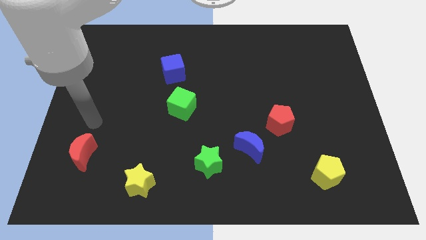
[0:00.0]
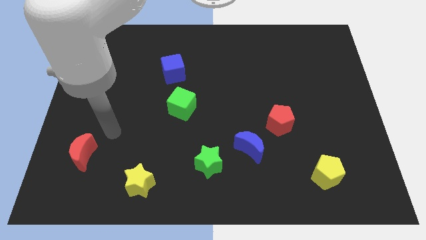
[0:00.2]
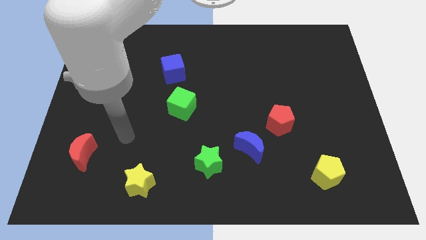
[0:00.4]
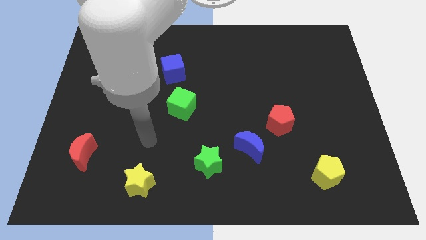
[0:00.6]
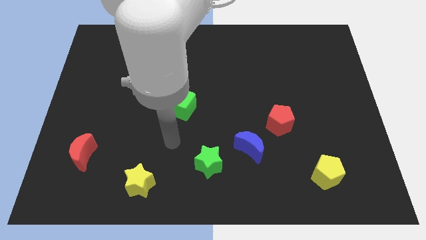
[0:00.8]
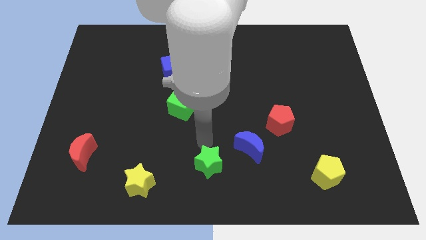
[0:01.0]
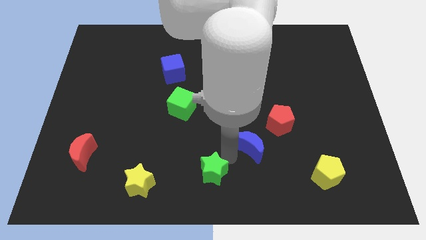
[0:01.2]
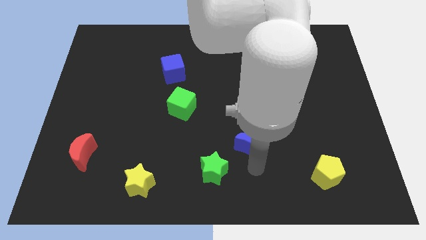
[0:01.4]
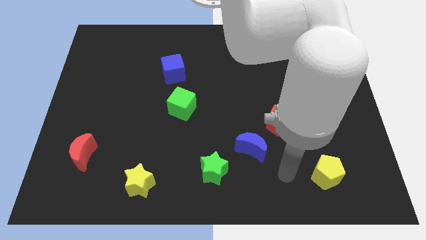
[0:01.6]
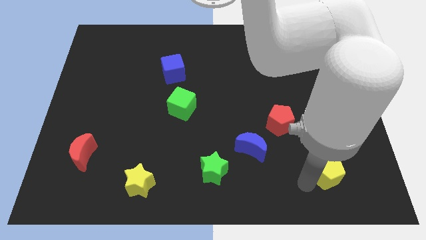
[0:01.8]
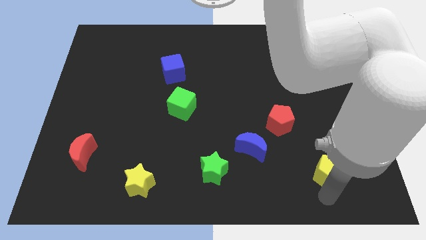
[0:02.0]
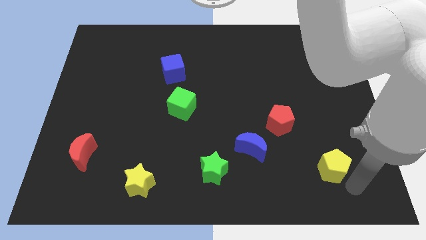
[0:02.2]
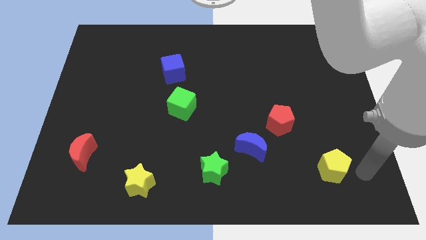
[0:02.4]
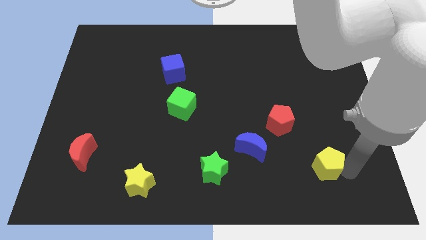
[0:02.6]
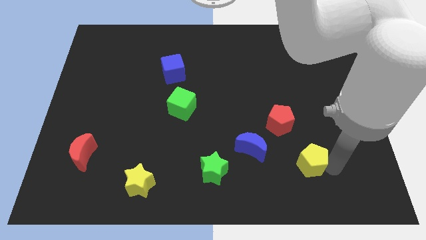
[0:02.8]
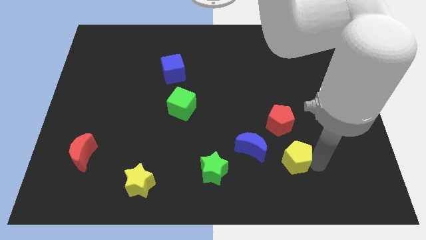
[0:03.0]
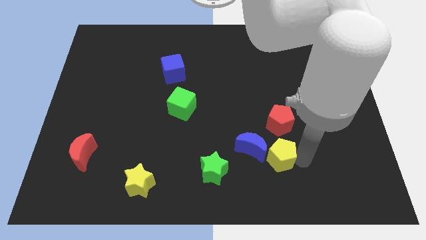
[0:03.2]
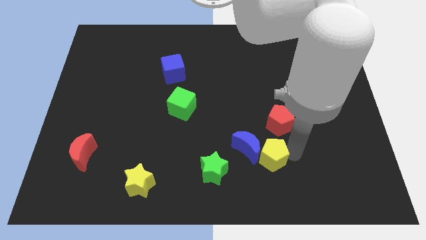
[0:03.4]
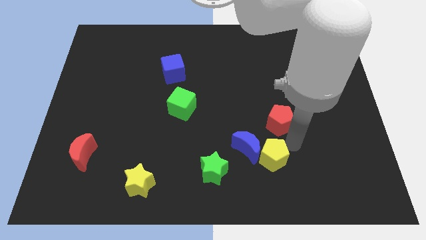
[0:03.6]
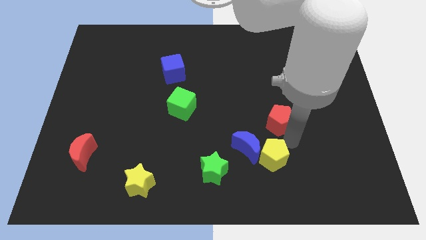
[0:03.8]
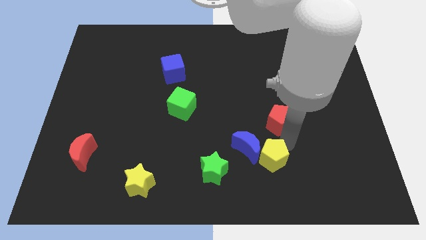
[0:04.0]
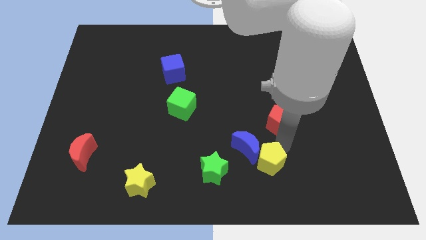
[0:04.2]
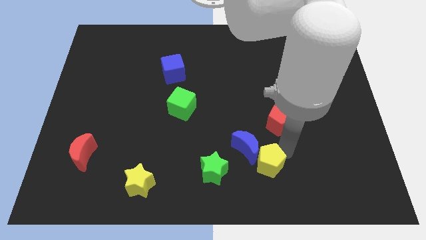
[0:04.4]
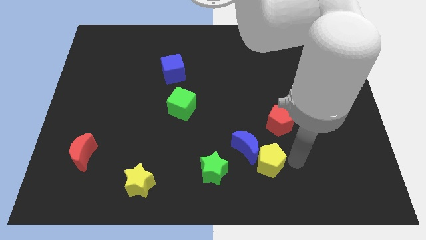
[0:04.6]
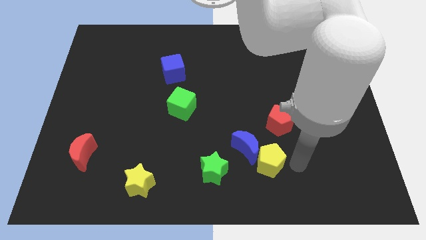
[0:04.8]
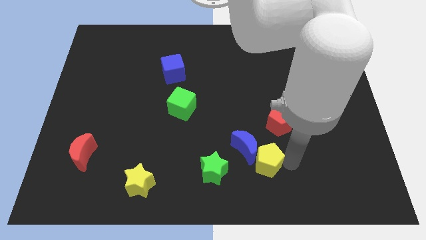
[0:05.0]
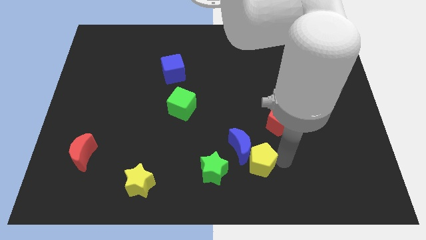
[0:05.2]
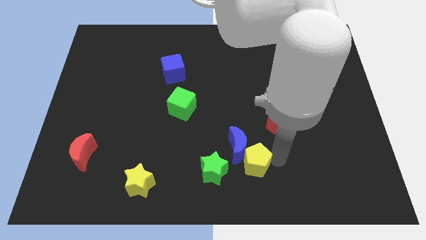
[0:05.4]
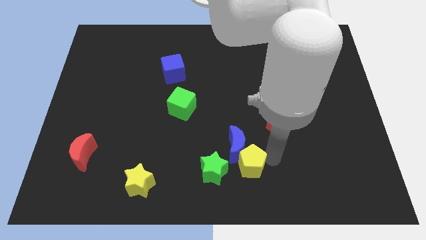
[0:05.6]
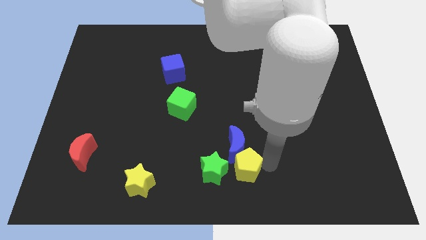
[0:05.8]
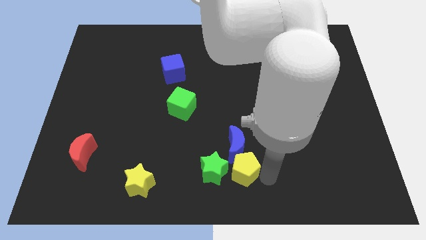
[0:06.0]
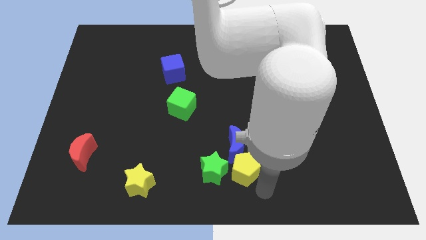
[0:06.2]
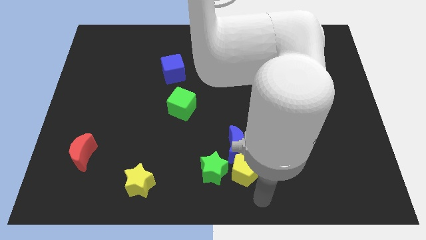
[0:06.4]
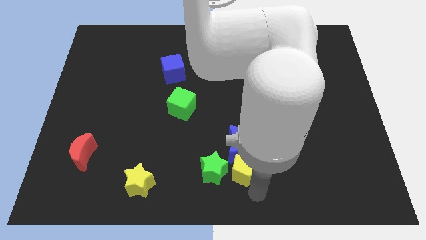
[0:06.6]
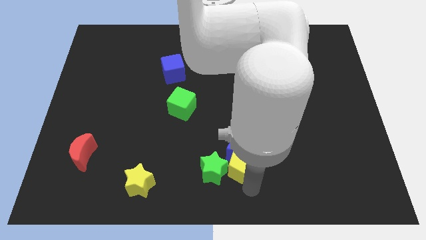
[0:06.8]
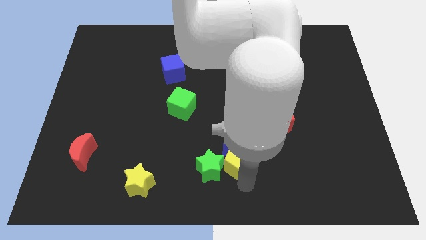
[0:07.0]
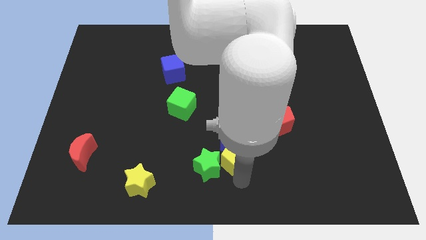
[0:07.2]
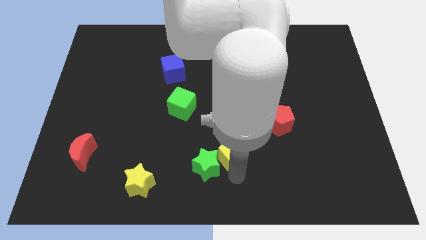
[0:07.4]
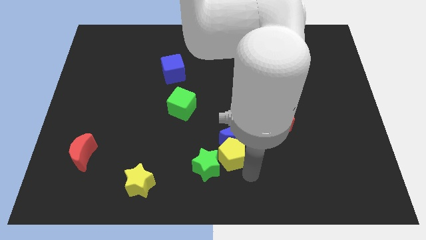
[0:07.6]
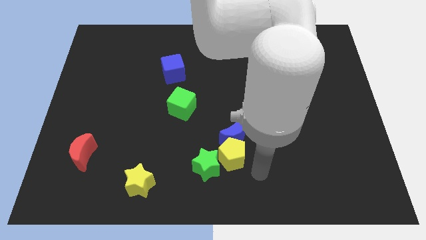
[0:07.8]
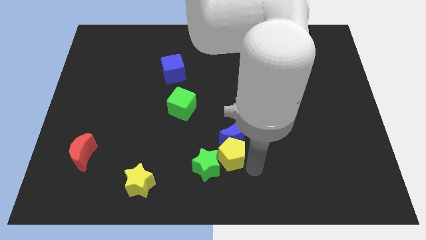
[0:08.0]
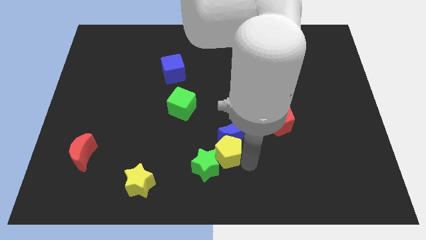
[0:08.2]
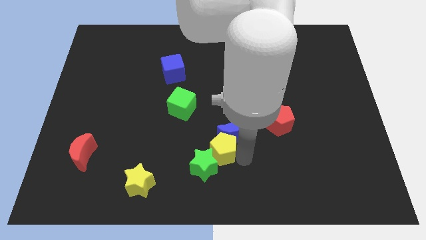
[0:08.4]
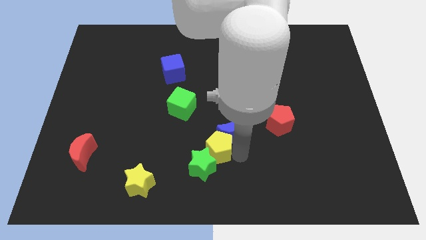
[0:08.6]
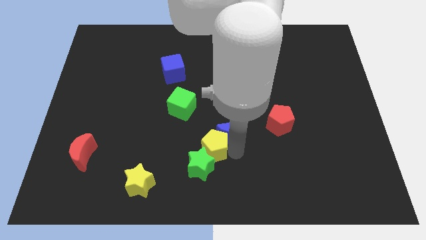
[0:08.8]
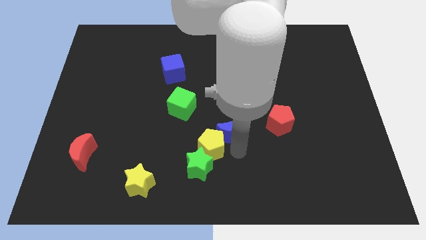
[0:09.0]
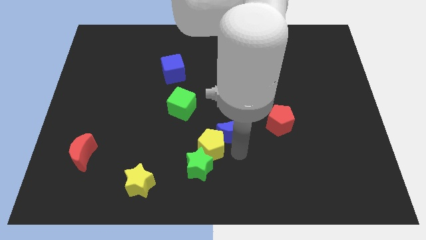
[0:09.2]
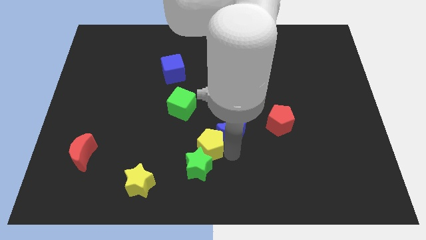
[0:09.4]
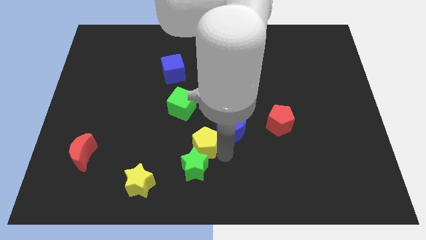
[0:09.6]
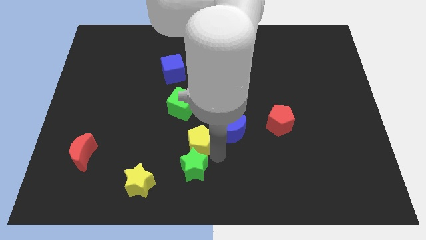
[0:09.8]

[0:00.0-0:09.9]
move the yellow pentagon below the green cube

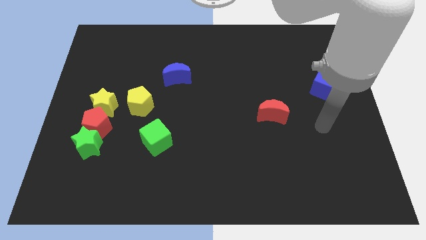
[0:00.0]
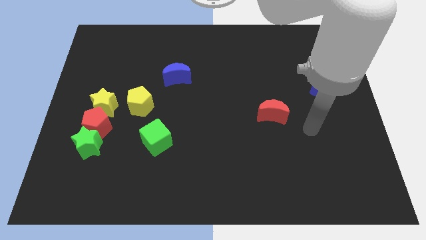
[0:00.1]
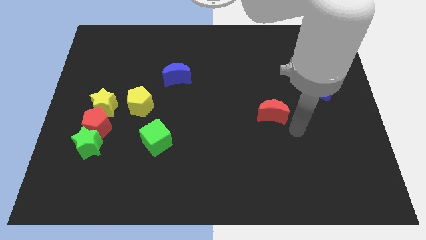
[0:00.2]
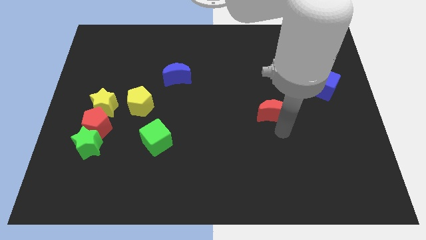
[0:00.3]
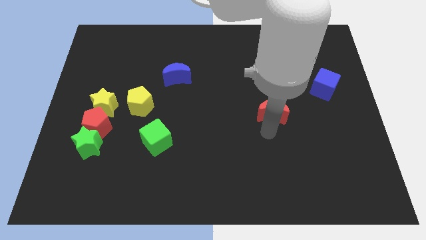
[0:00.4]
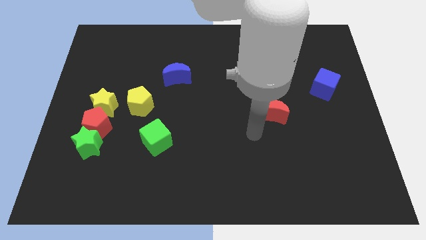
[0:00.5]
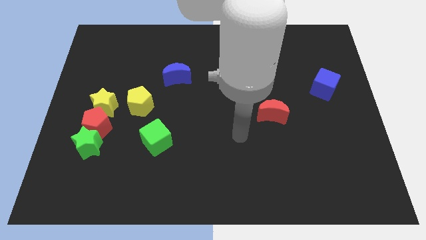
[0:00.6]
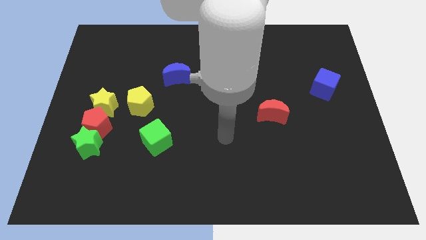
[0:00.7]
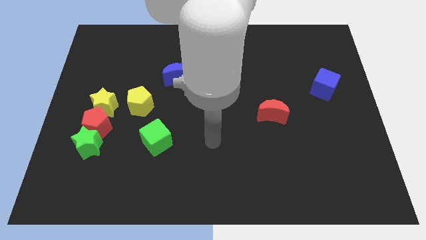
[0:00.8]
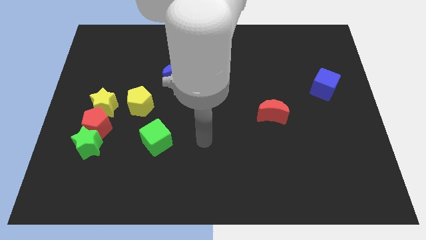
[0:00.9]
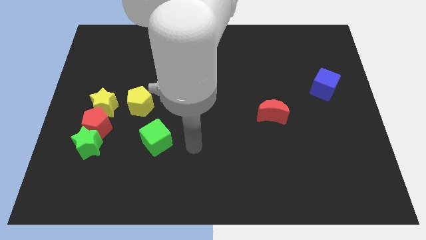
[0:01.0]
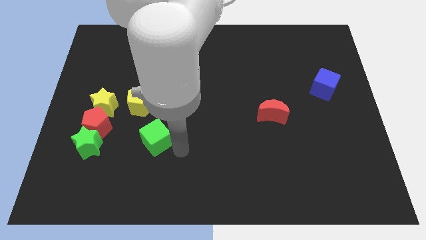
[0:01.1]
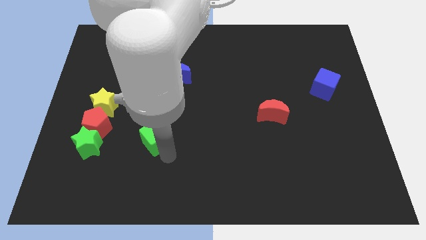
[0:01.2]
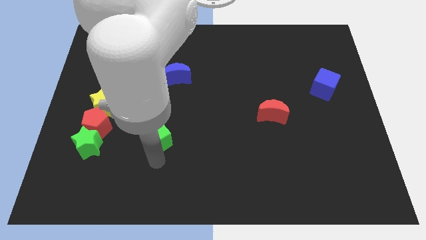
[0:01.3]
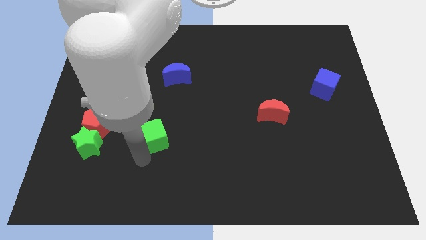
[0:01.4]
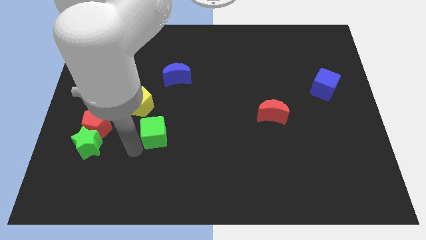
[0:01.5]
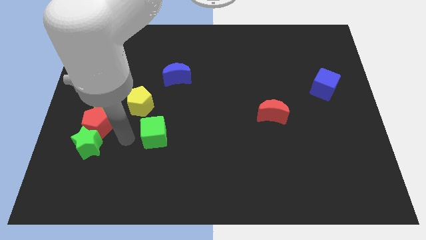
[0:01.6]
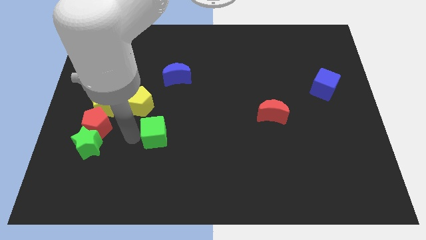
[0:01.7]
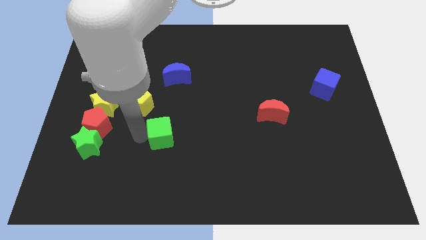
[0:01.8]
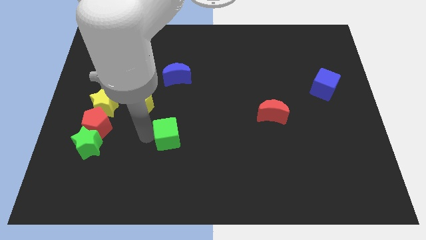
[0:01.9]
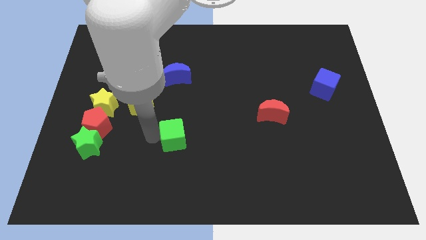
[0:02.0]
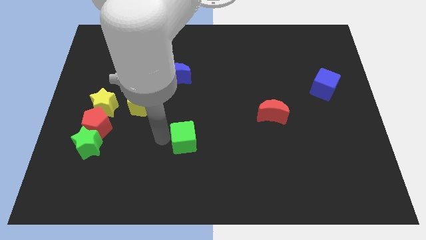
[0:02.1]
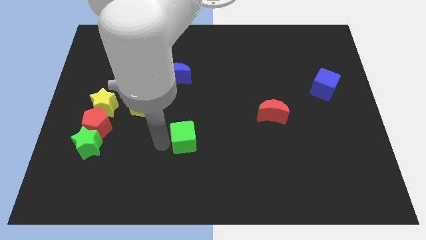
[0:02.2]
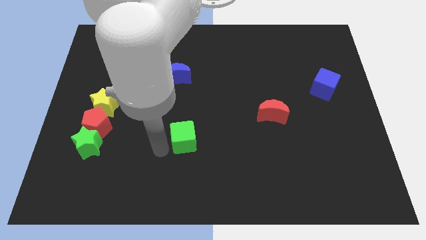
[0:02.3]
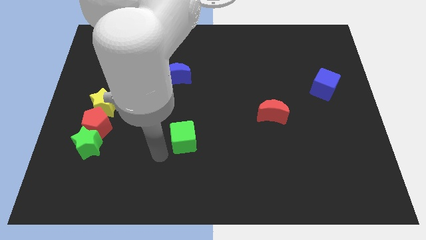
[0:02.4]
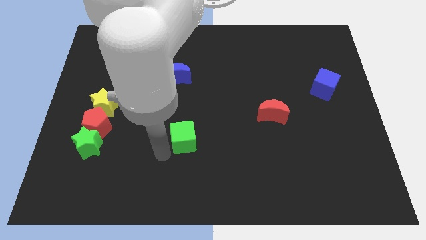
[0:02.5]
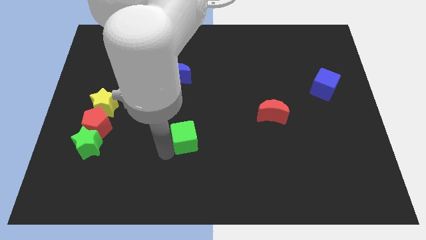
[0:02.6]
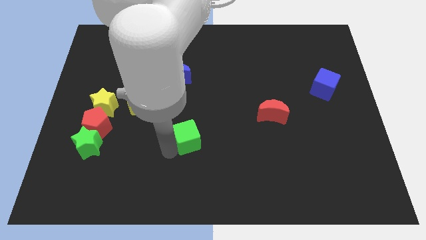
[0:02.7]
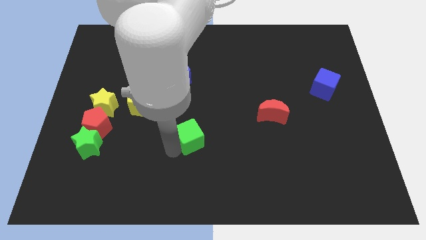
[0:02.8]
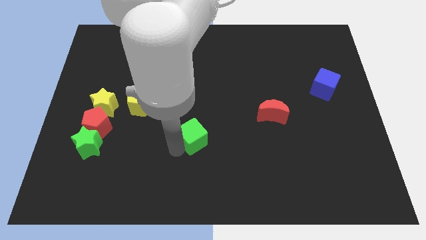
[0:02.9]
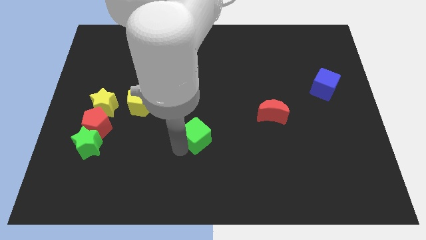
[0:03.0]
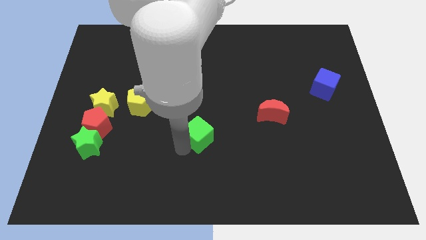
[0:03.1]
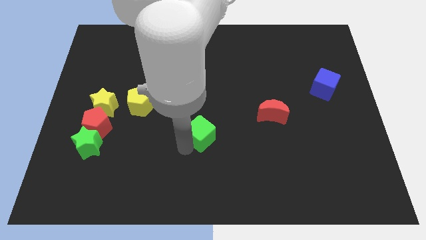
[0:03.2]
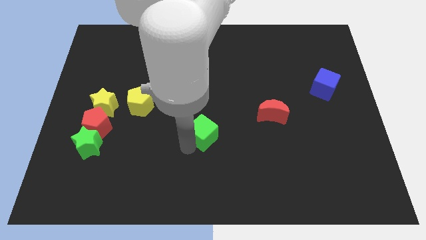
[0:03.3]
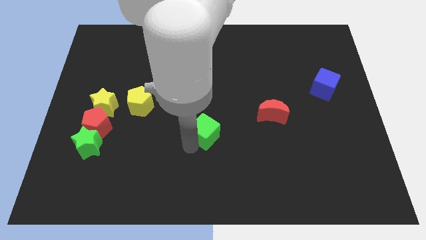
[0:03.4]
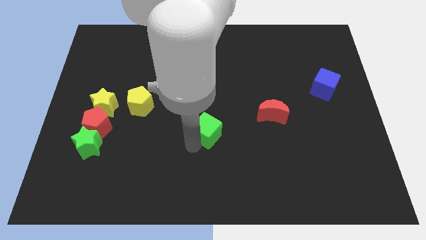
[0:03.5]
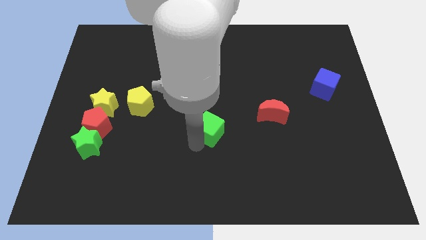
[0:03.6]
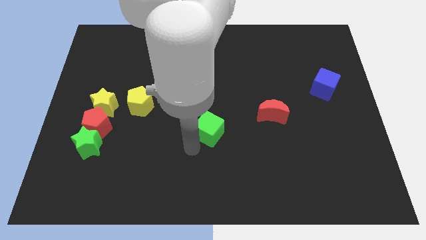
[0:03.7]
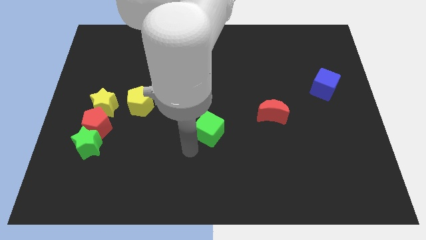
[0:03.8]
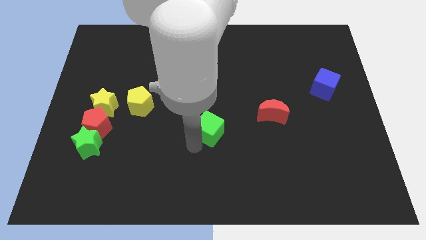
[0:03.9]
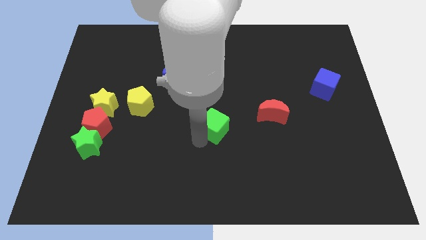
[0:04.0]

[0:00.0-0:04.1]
push the green cube left of the red moon
